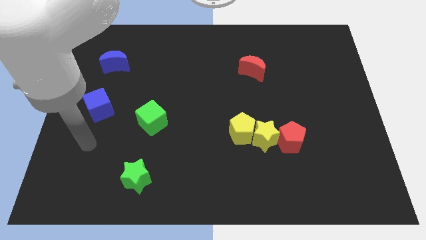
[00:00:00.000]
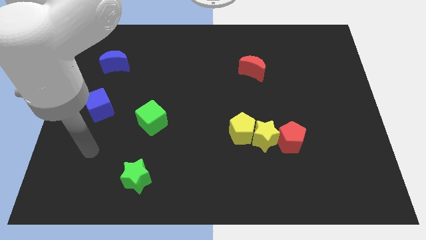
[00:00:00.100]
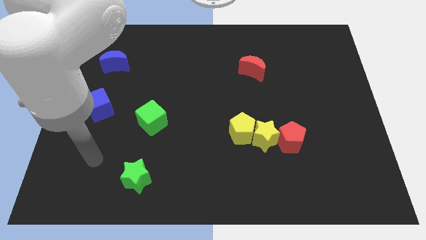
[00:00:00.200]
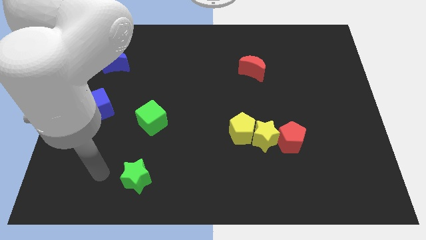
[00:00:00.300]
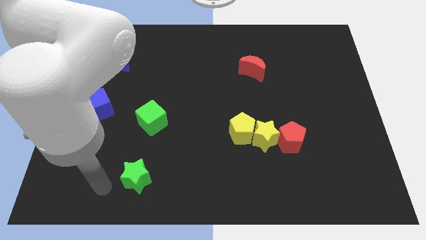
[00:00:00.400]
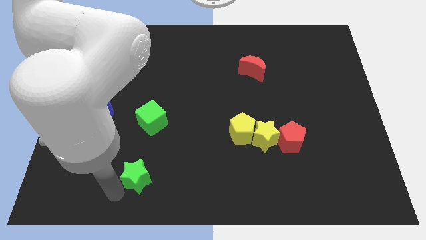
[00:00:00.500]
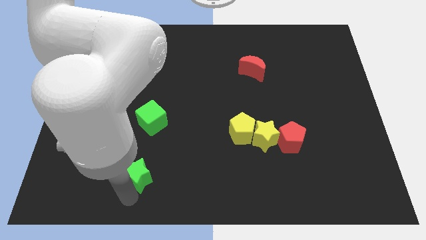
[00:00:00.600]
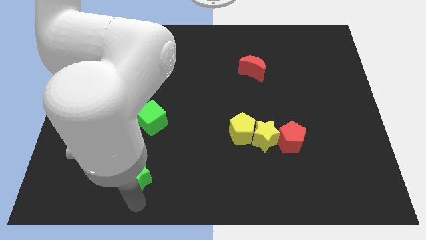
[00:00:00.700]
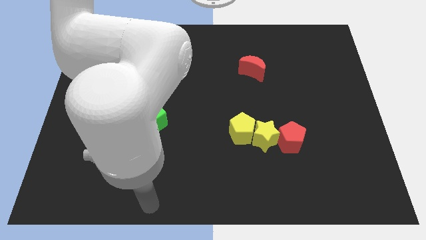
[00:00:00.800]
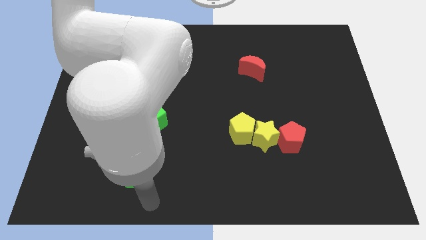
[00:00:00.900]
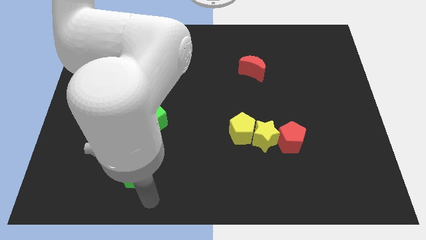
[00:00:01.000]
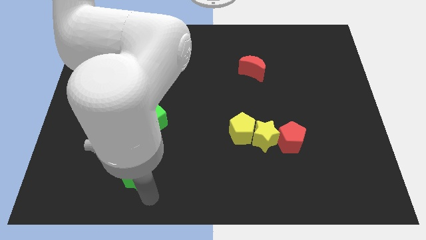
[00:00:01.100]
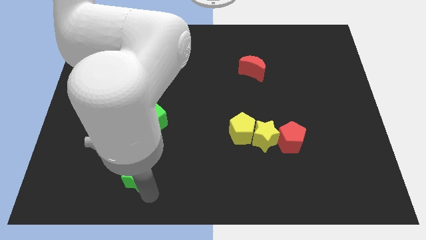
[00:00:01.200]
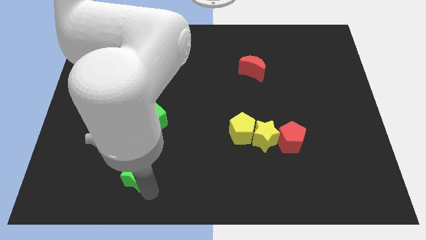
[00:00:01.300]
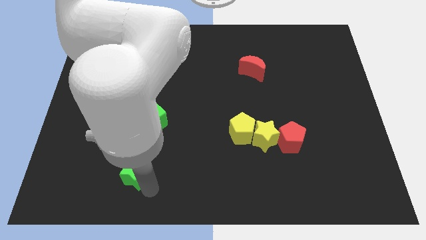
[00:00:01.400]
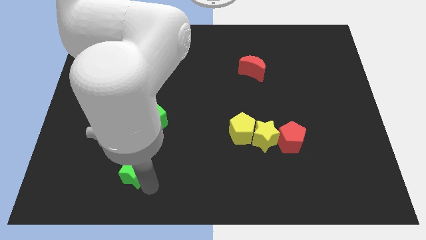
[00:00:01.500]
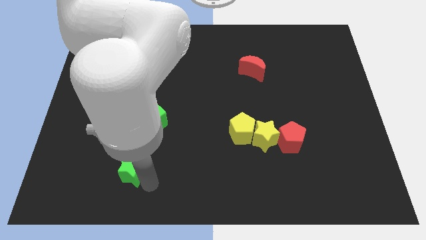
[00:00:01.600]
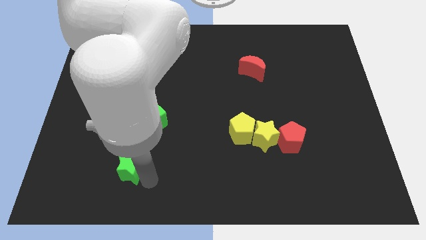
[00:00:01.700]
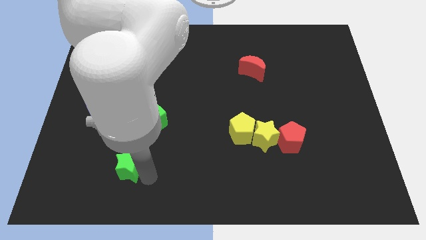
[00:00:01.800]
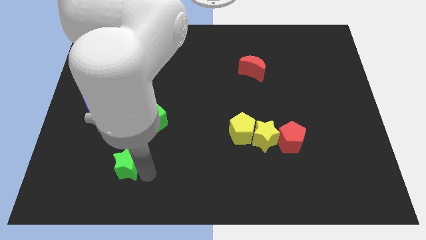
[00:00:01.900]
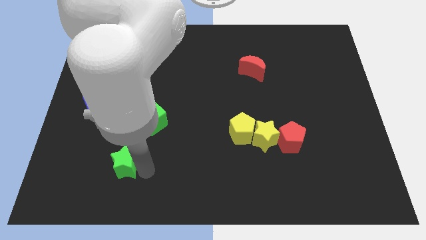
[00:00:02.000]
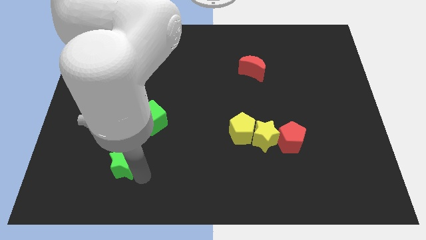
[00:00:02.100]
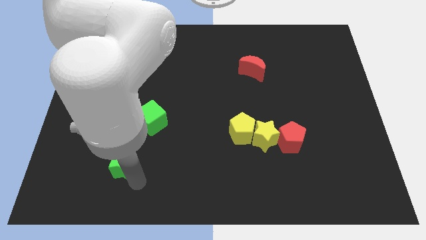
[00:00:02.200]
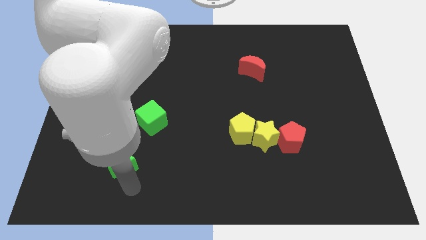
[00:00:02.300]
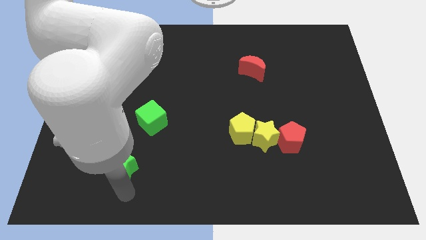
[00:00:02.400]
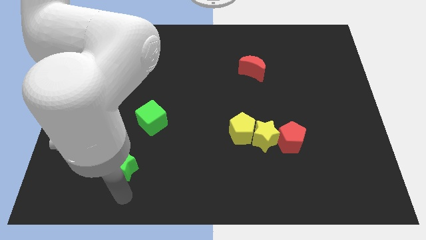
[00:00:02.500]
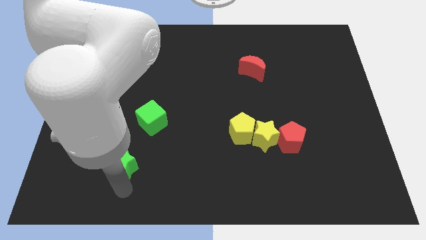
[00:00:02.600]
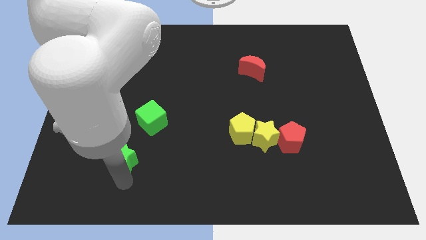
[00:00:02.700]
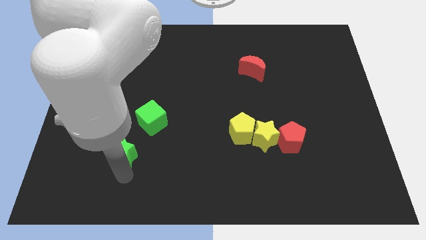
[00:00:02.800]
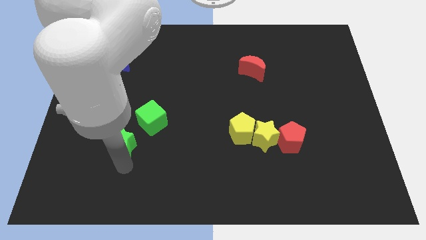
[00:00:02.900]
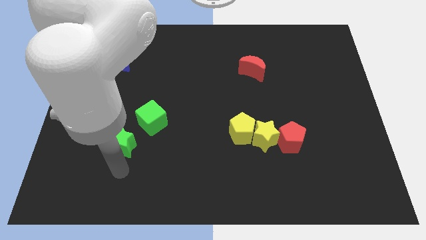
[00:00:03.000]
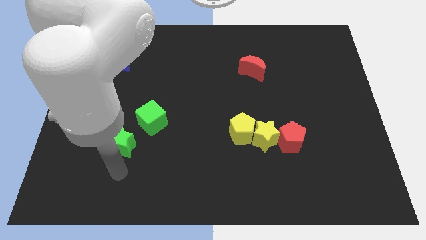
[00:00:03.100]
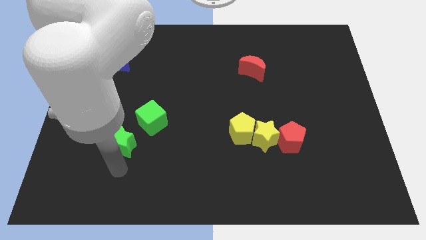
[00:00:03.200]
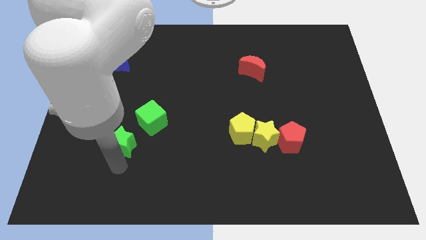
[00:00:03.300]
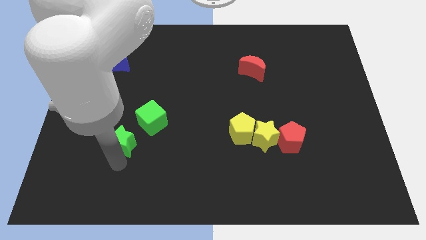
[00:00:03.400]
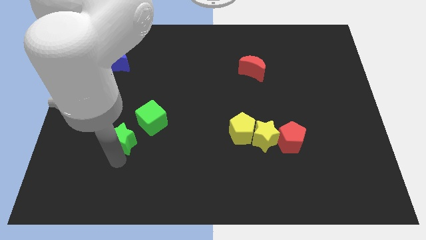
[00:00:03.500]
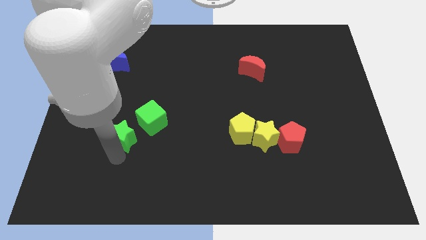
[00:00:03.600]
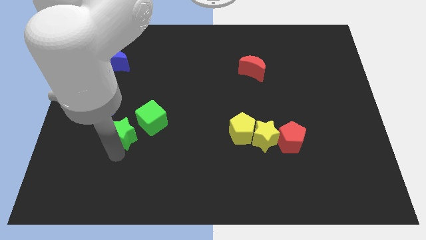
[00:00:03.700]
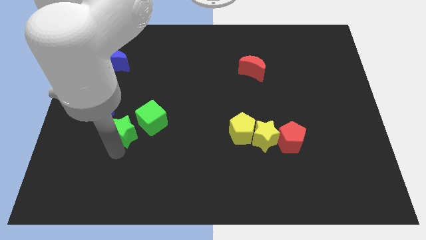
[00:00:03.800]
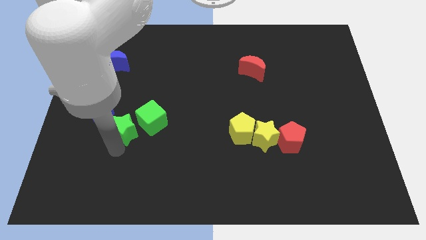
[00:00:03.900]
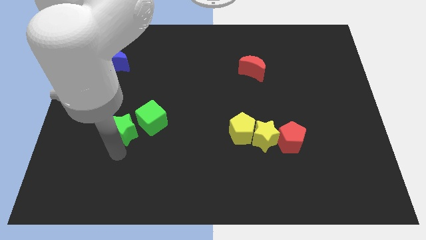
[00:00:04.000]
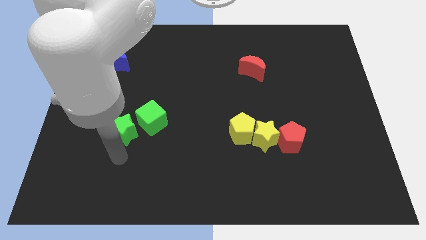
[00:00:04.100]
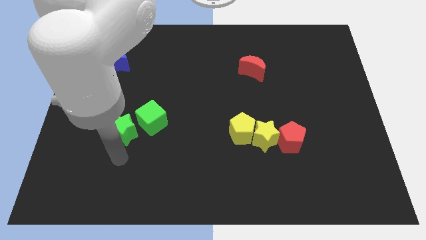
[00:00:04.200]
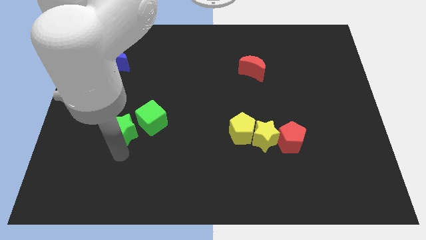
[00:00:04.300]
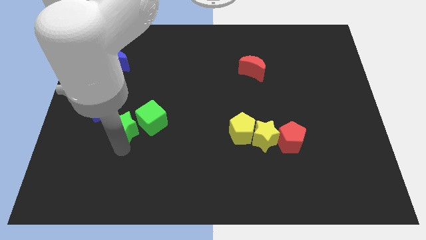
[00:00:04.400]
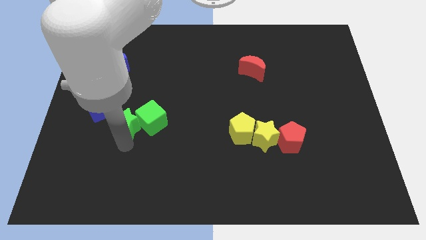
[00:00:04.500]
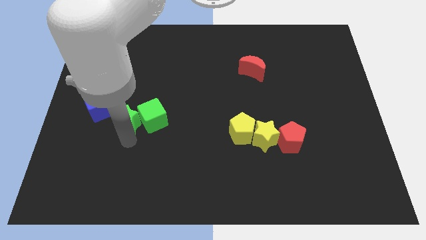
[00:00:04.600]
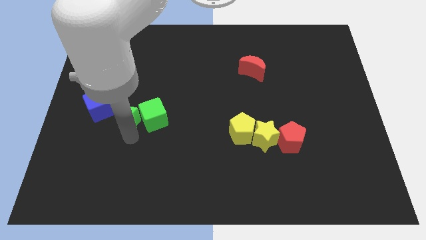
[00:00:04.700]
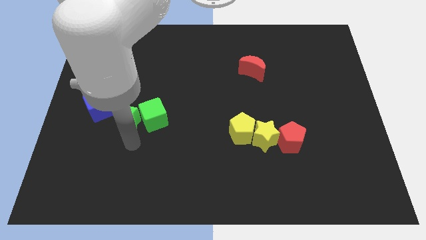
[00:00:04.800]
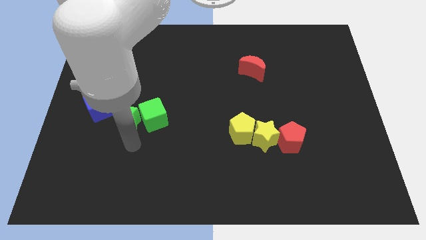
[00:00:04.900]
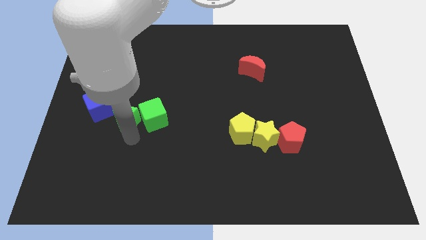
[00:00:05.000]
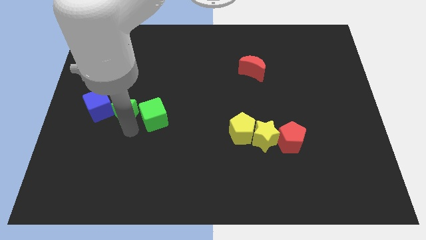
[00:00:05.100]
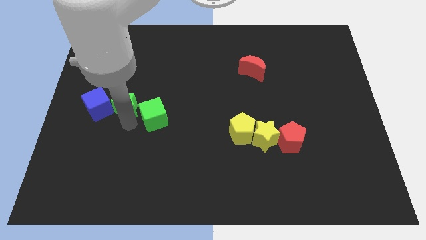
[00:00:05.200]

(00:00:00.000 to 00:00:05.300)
push the green star to the top right side of the blue cube

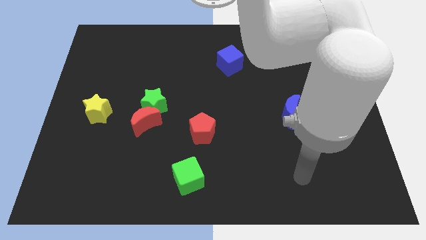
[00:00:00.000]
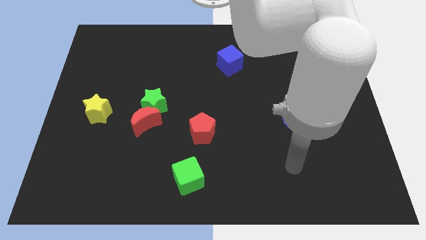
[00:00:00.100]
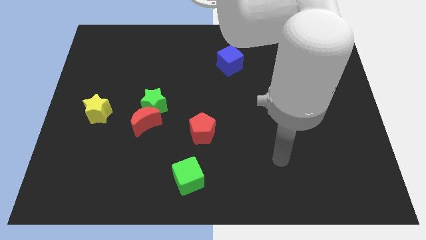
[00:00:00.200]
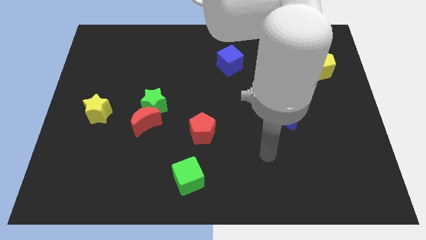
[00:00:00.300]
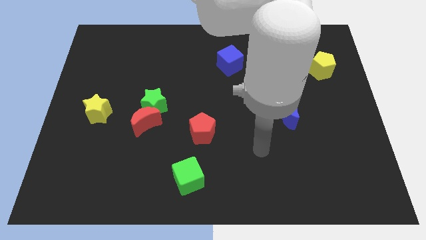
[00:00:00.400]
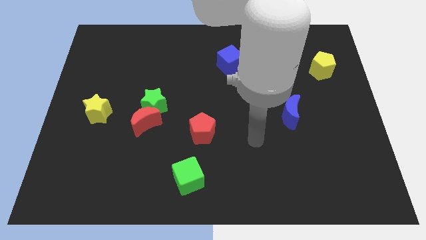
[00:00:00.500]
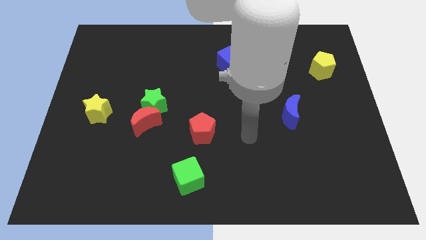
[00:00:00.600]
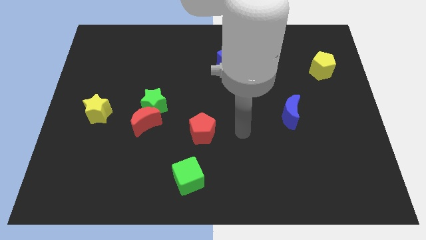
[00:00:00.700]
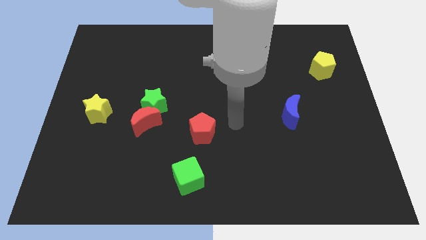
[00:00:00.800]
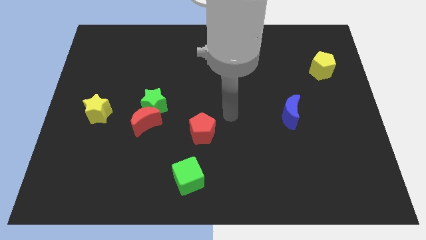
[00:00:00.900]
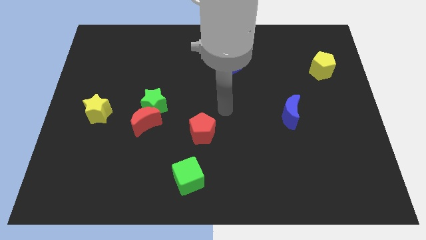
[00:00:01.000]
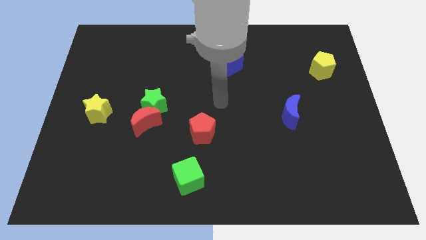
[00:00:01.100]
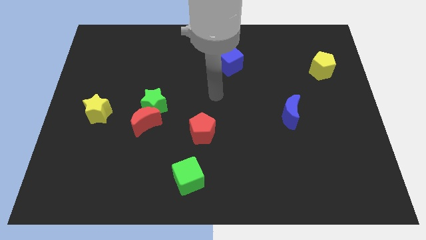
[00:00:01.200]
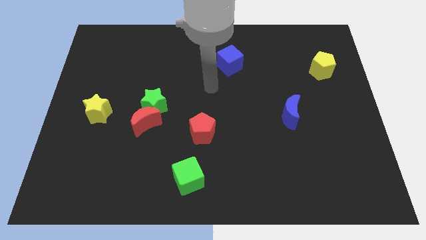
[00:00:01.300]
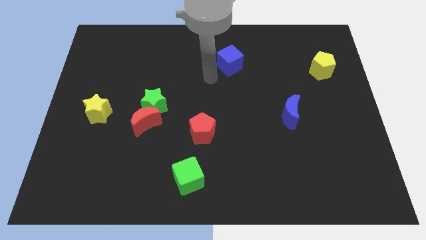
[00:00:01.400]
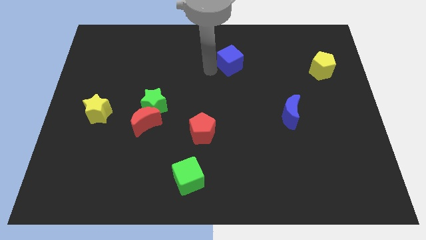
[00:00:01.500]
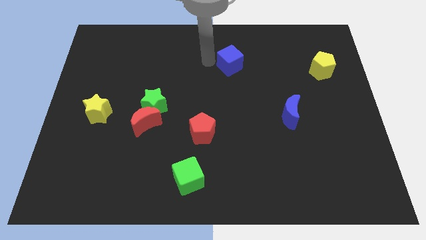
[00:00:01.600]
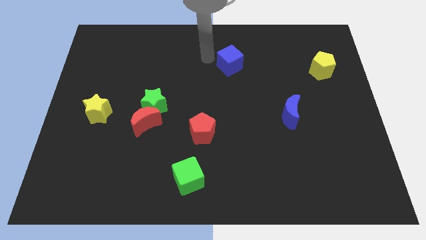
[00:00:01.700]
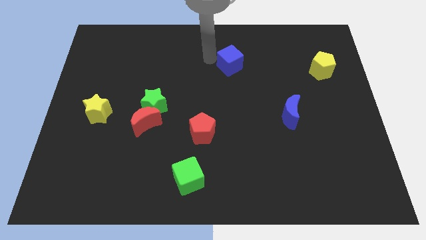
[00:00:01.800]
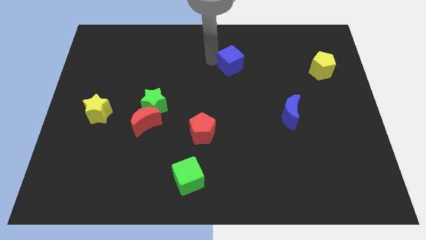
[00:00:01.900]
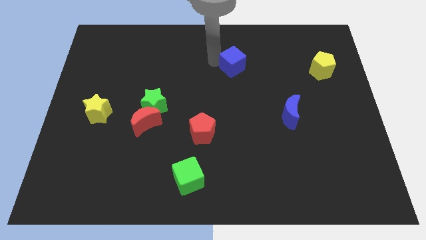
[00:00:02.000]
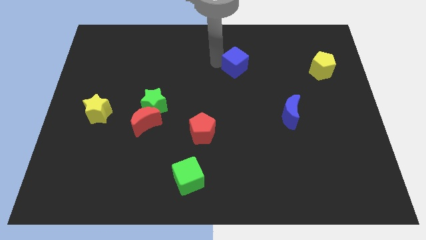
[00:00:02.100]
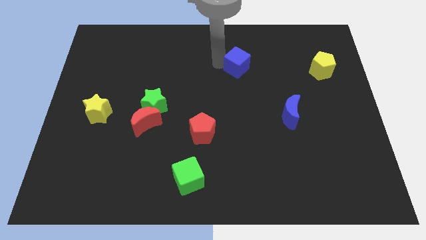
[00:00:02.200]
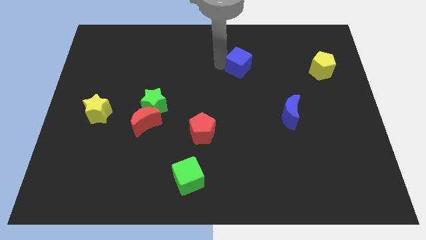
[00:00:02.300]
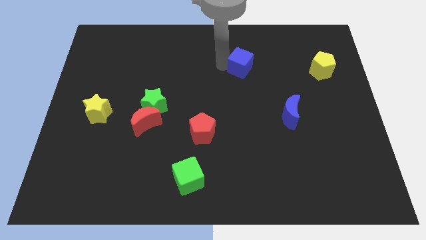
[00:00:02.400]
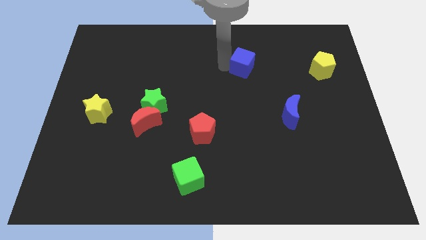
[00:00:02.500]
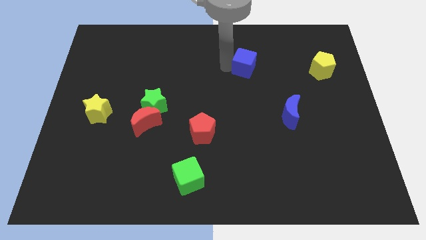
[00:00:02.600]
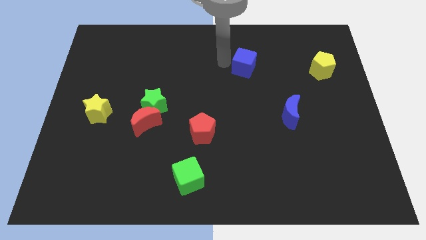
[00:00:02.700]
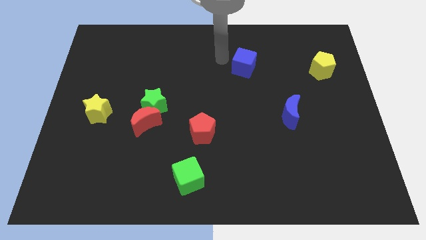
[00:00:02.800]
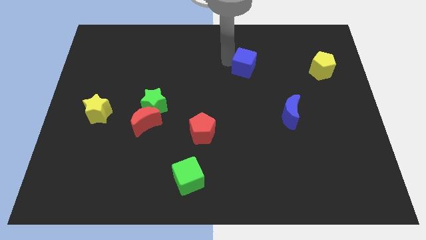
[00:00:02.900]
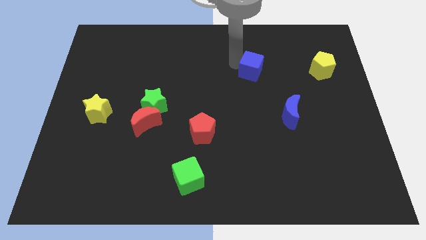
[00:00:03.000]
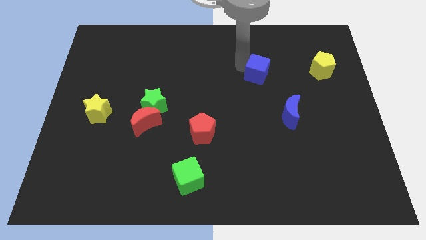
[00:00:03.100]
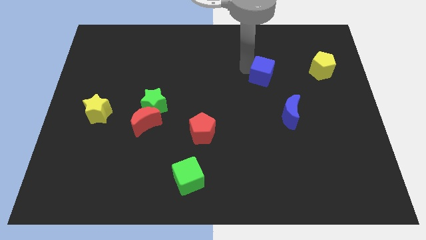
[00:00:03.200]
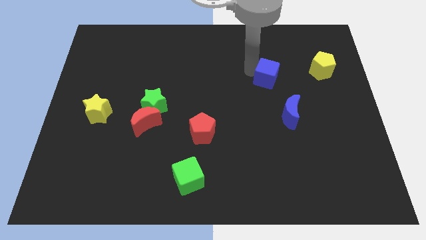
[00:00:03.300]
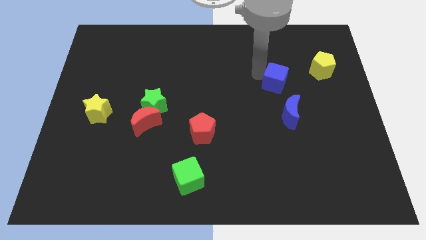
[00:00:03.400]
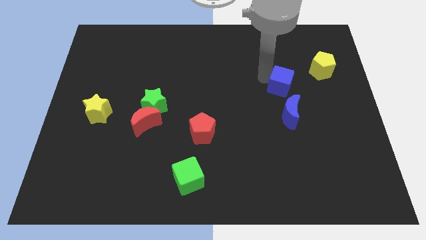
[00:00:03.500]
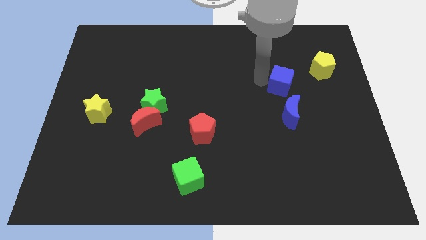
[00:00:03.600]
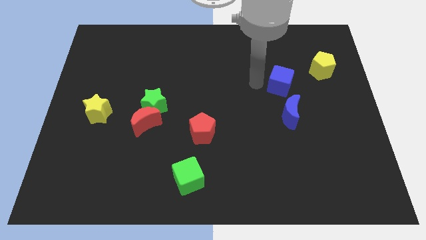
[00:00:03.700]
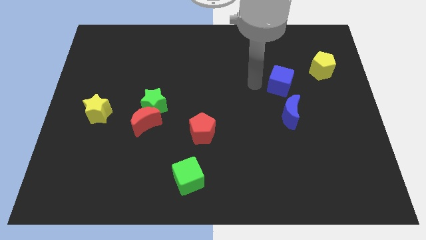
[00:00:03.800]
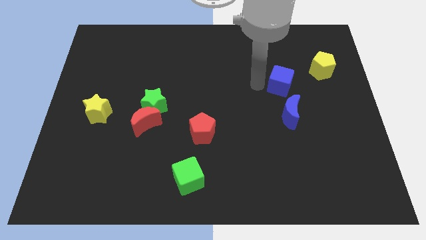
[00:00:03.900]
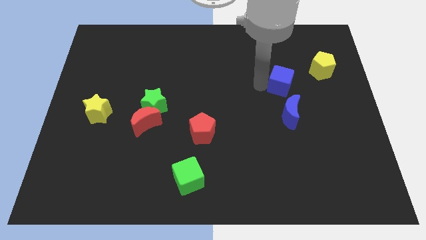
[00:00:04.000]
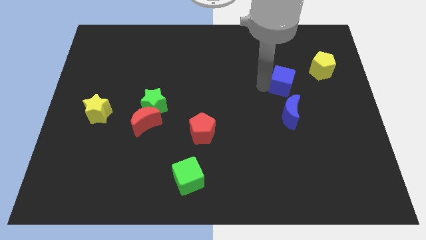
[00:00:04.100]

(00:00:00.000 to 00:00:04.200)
move the blue cube to the bottom left side of the yellow pentagon
